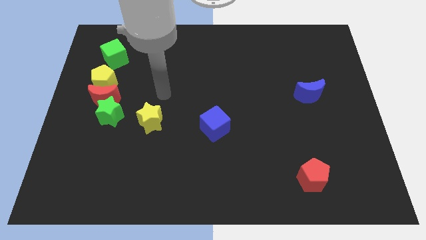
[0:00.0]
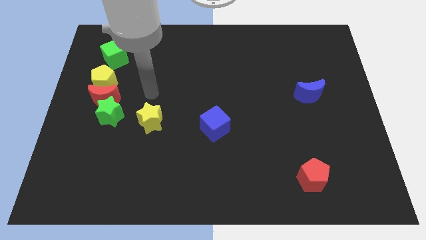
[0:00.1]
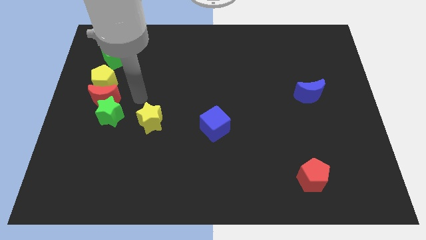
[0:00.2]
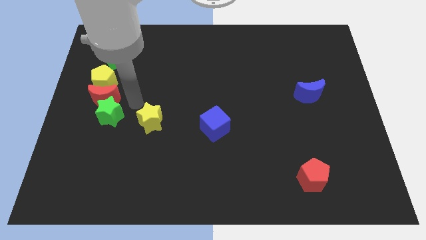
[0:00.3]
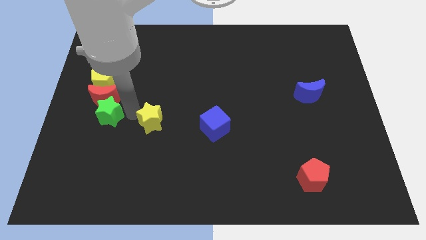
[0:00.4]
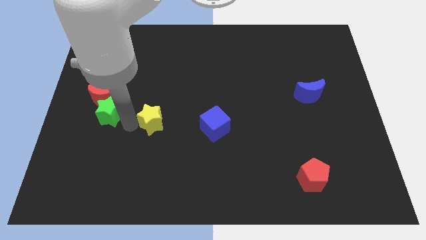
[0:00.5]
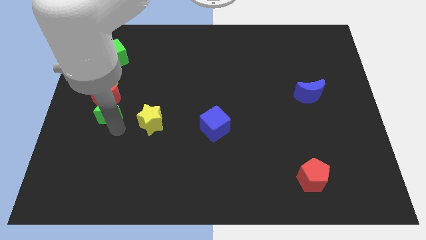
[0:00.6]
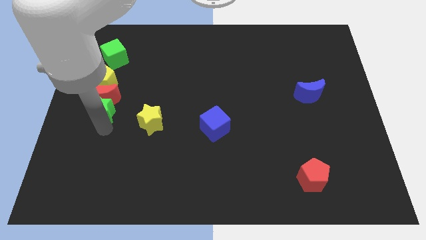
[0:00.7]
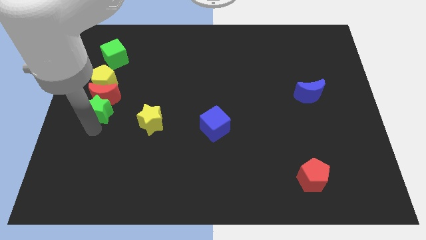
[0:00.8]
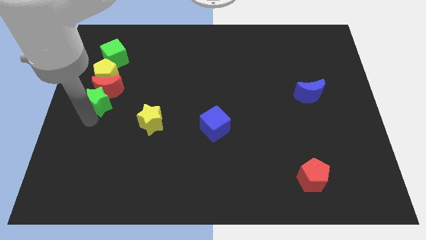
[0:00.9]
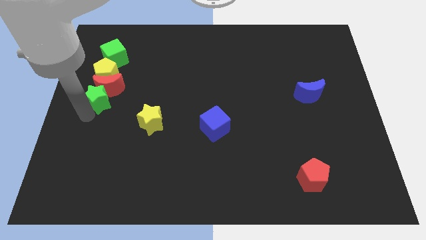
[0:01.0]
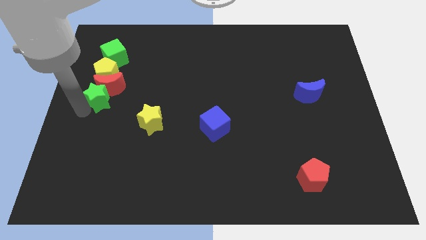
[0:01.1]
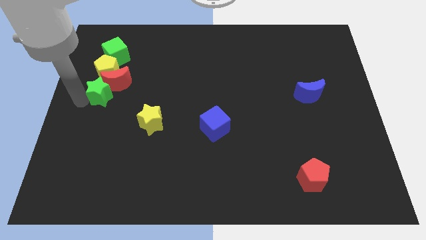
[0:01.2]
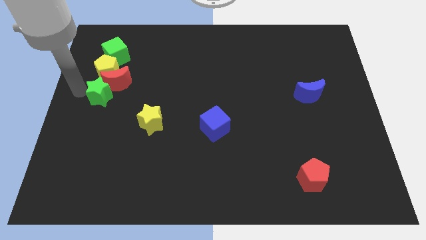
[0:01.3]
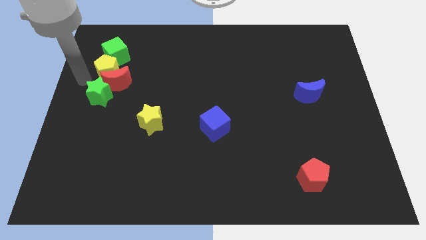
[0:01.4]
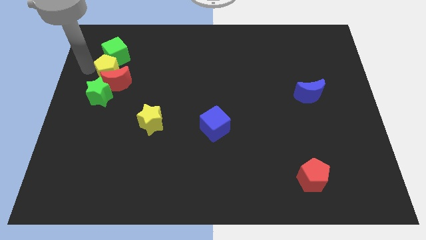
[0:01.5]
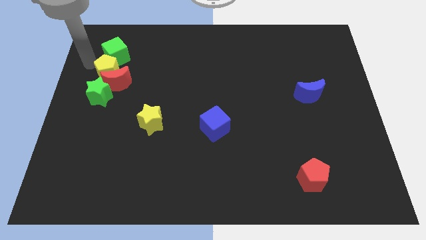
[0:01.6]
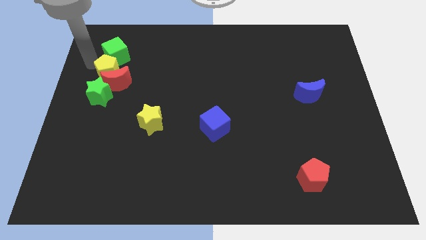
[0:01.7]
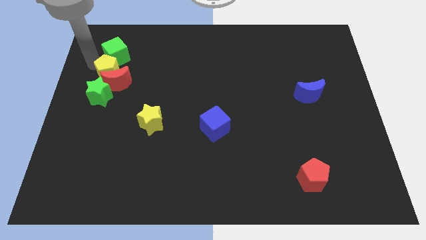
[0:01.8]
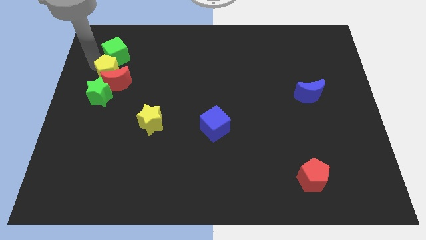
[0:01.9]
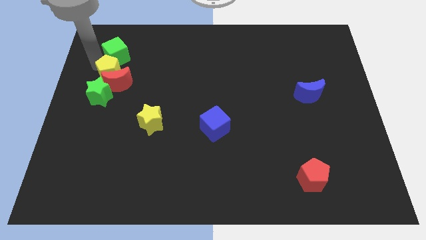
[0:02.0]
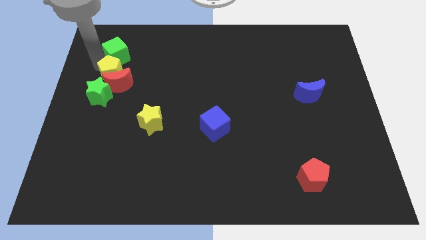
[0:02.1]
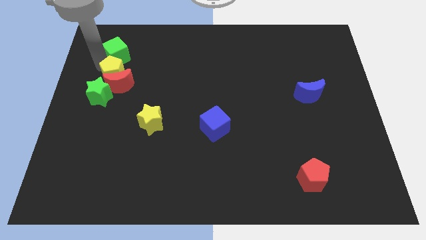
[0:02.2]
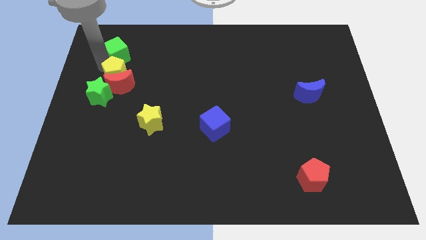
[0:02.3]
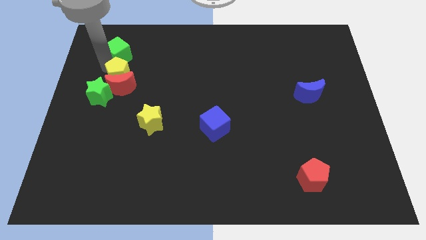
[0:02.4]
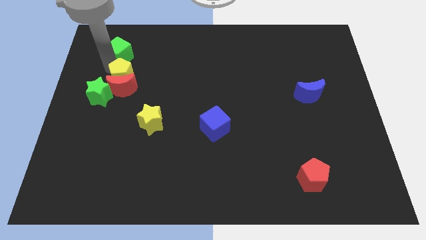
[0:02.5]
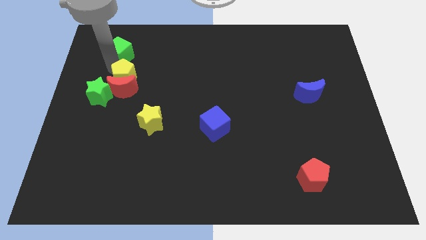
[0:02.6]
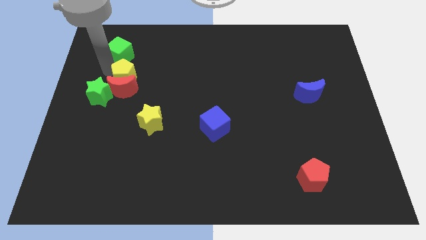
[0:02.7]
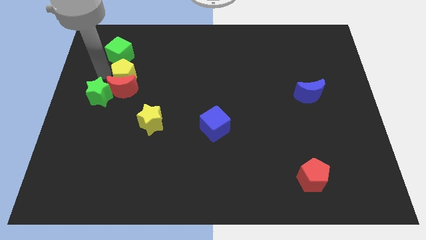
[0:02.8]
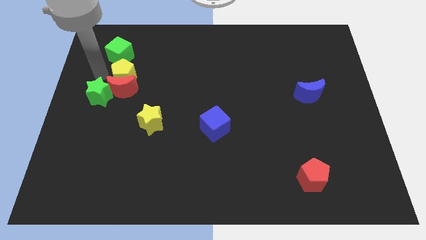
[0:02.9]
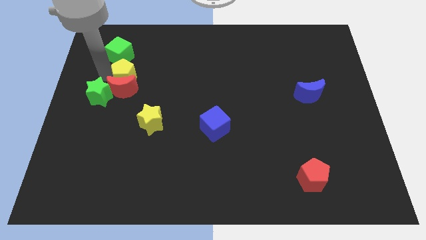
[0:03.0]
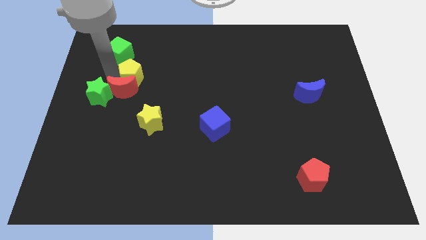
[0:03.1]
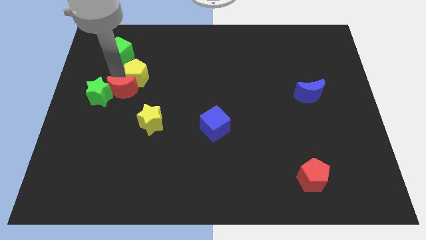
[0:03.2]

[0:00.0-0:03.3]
slide the yellow pentagon somewhat to the right

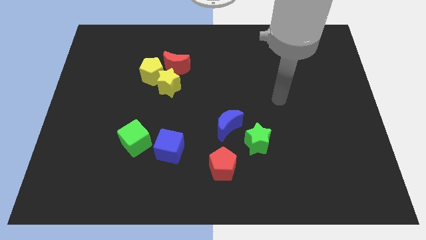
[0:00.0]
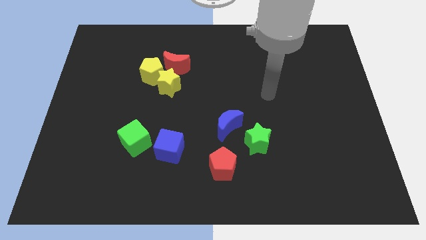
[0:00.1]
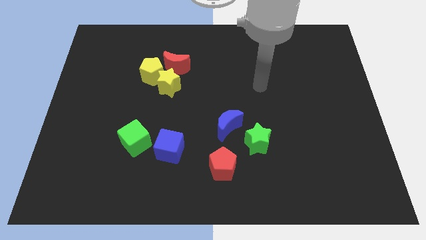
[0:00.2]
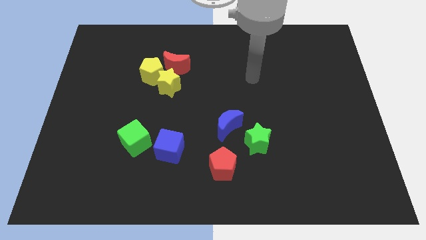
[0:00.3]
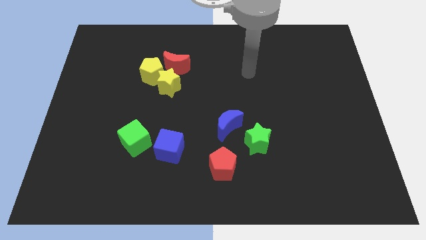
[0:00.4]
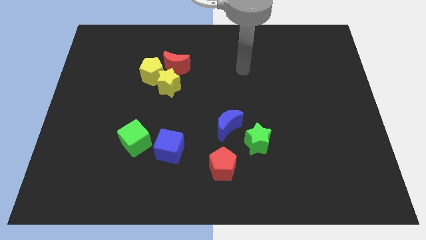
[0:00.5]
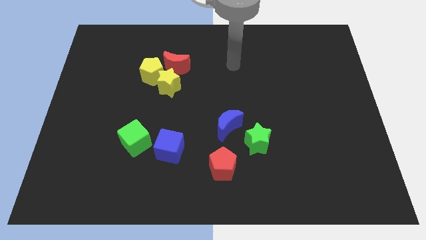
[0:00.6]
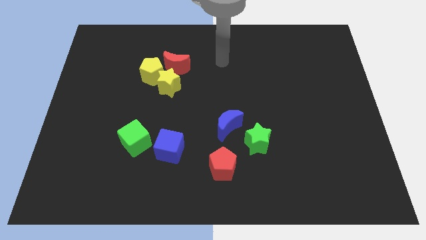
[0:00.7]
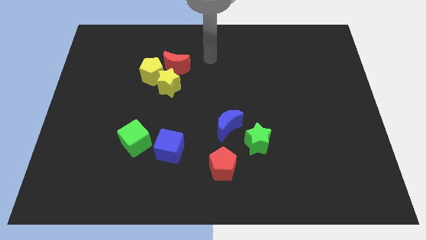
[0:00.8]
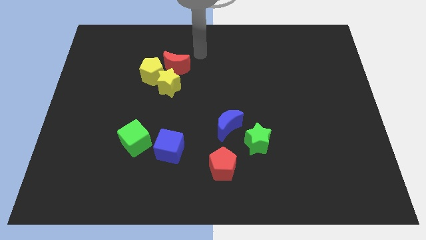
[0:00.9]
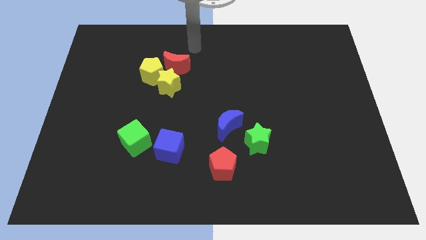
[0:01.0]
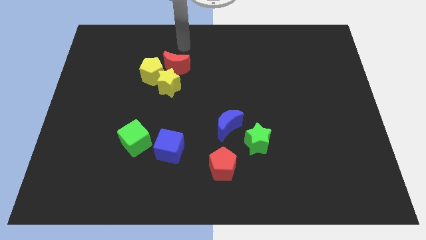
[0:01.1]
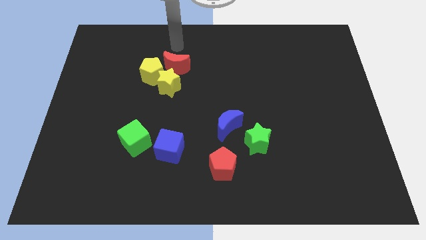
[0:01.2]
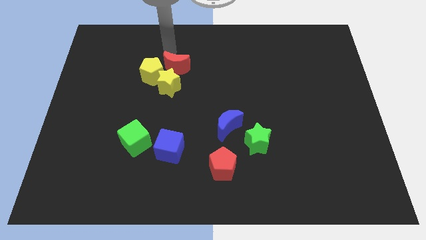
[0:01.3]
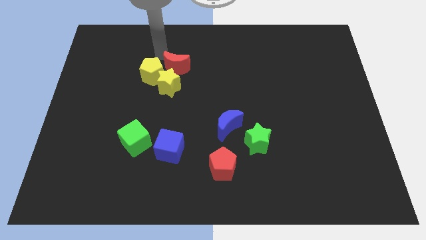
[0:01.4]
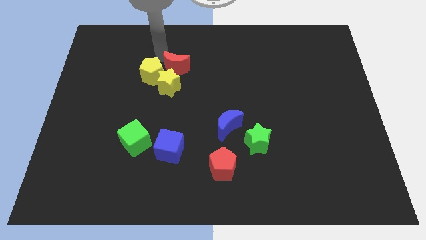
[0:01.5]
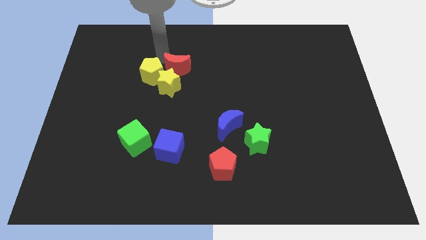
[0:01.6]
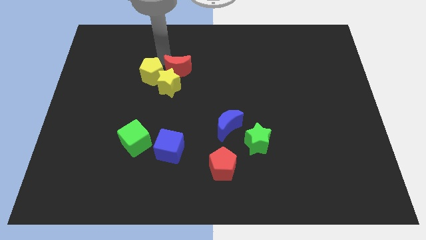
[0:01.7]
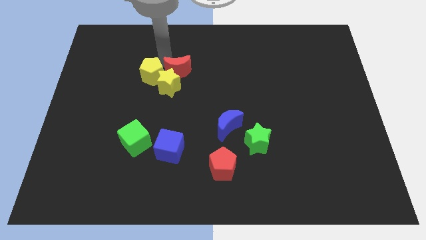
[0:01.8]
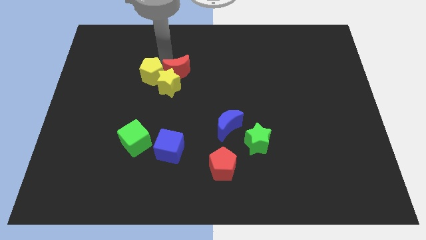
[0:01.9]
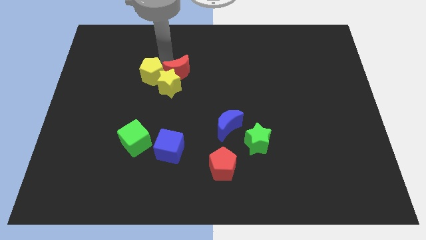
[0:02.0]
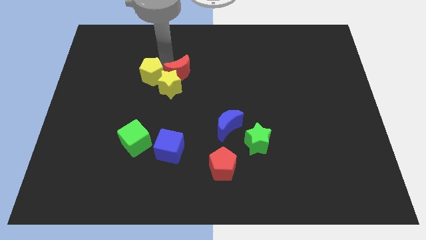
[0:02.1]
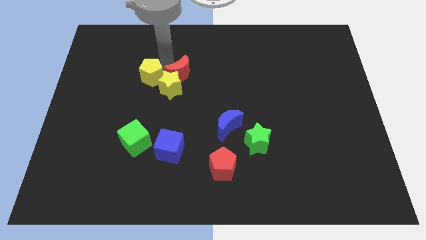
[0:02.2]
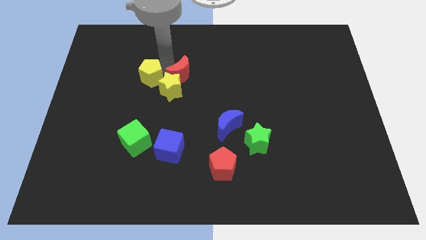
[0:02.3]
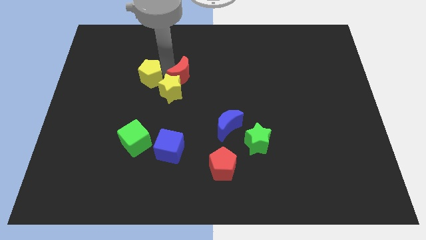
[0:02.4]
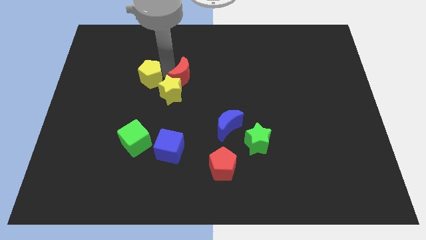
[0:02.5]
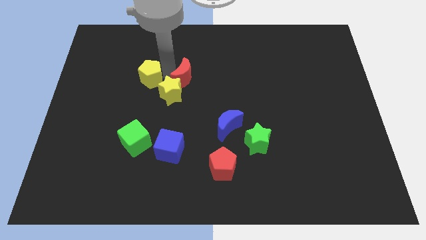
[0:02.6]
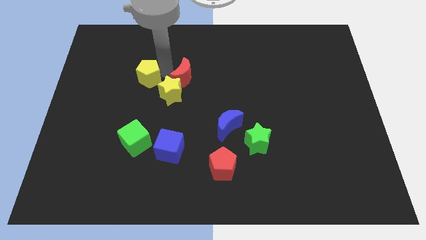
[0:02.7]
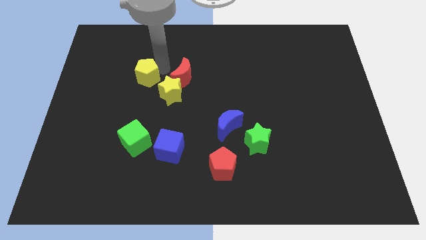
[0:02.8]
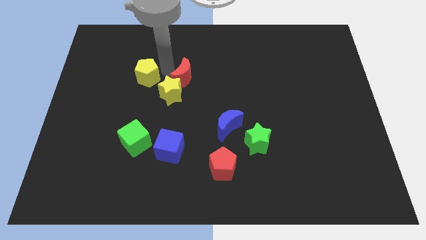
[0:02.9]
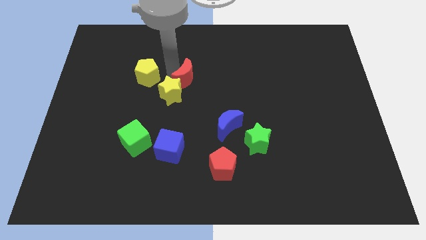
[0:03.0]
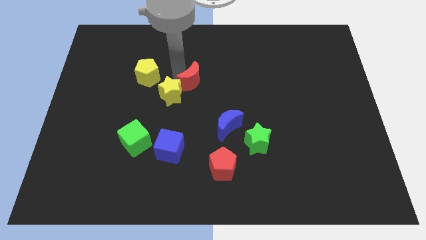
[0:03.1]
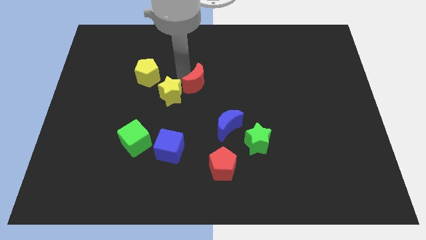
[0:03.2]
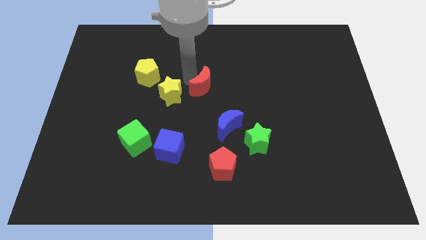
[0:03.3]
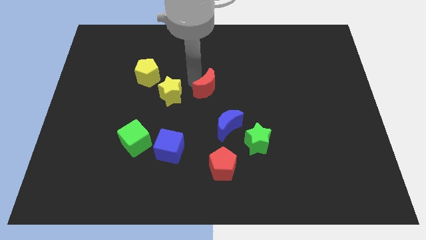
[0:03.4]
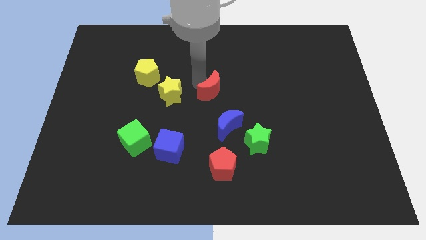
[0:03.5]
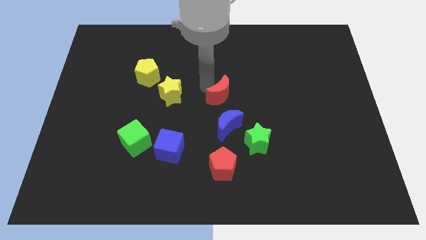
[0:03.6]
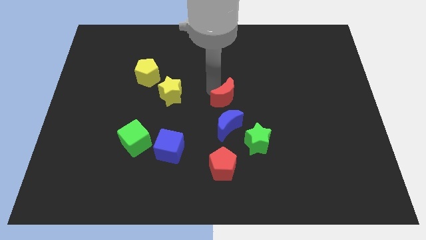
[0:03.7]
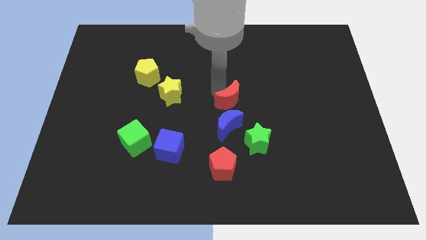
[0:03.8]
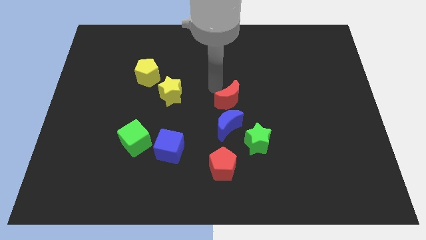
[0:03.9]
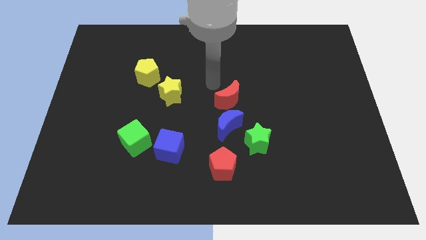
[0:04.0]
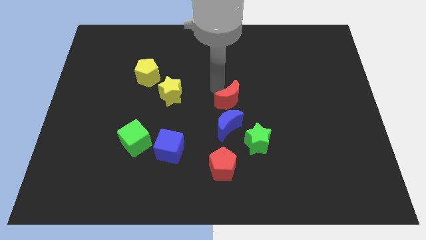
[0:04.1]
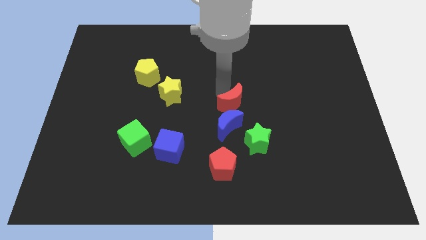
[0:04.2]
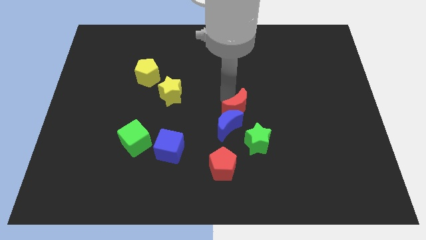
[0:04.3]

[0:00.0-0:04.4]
move the red moon diagonally downwards and right
